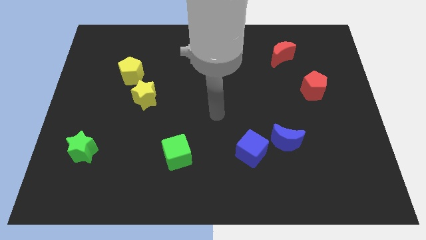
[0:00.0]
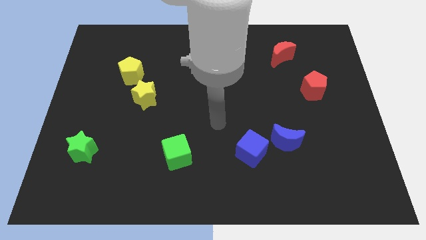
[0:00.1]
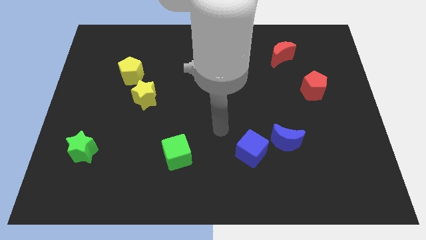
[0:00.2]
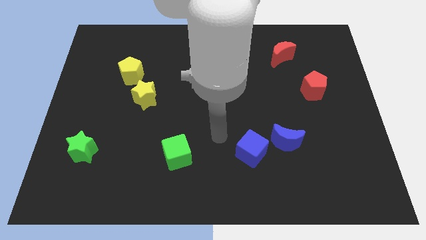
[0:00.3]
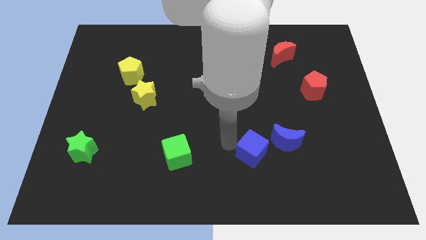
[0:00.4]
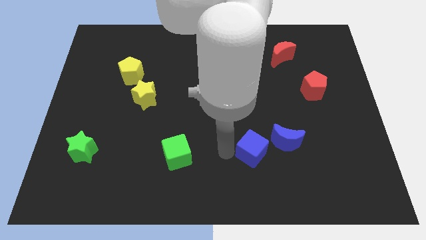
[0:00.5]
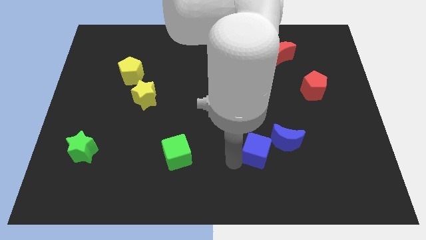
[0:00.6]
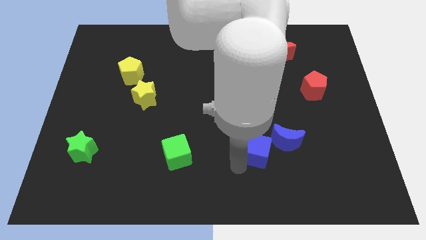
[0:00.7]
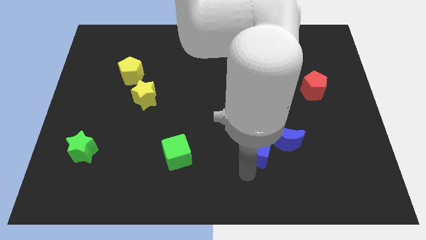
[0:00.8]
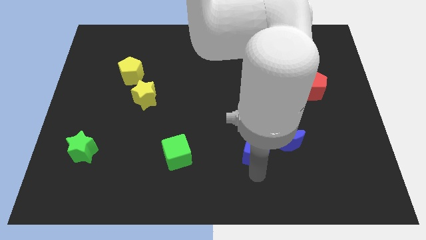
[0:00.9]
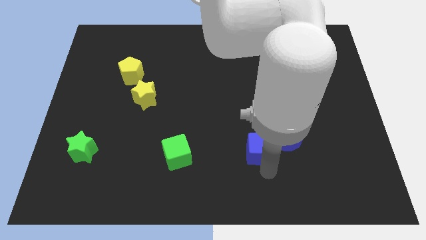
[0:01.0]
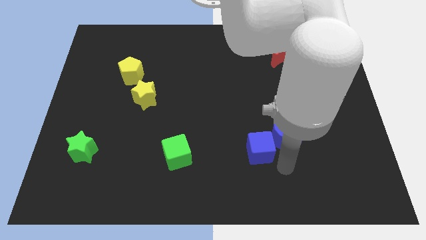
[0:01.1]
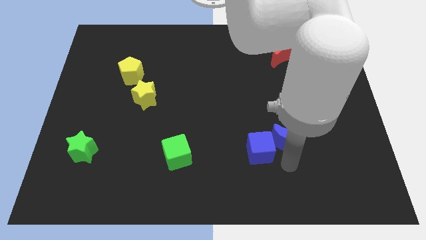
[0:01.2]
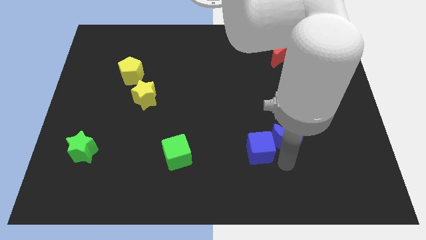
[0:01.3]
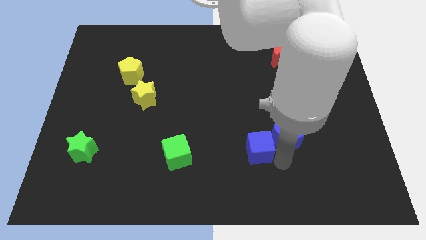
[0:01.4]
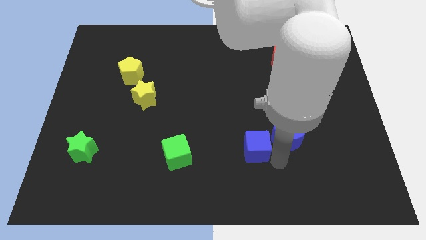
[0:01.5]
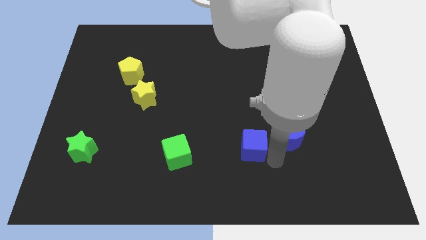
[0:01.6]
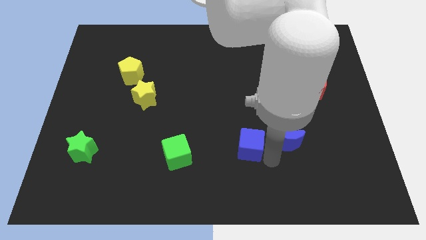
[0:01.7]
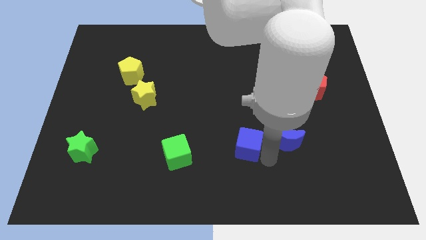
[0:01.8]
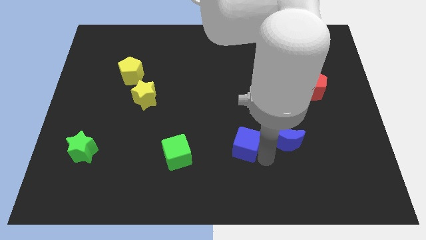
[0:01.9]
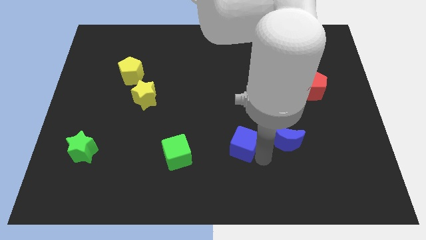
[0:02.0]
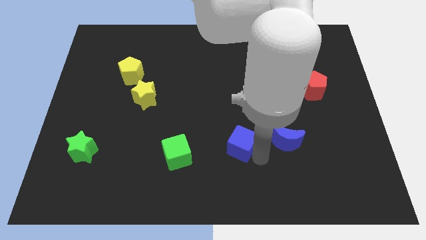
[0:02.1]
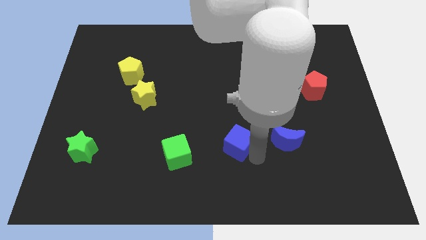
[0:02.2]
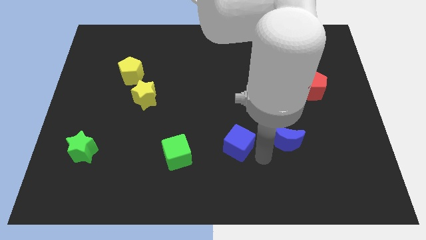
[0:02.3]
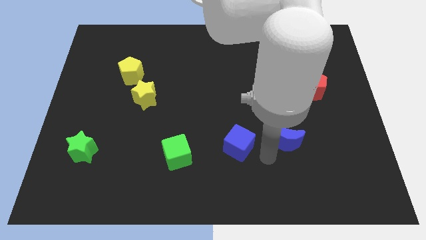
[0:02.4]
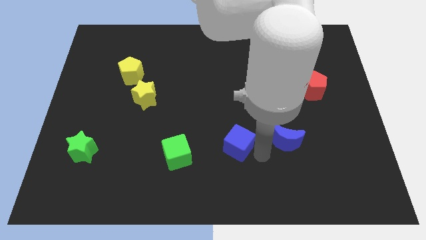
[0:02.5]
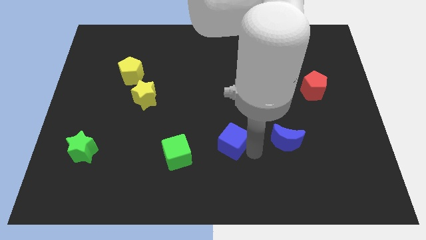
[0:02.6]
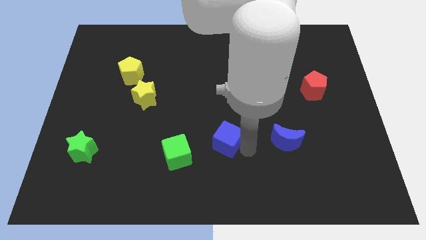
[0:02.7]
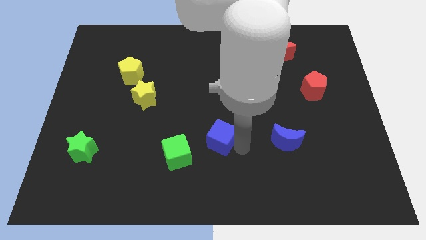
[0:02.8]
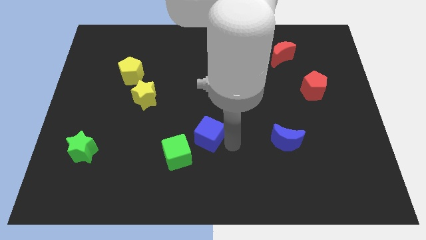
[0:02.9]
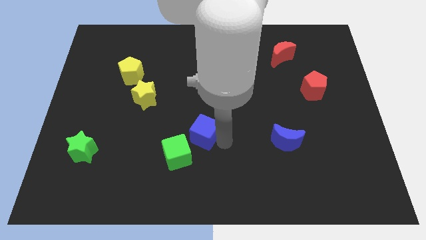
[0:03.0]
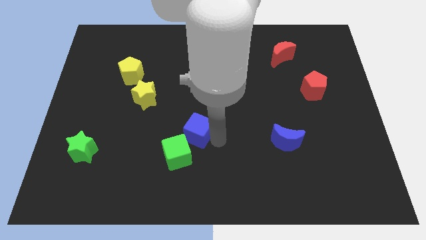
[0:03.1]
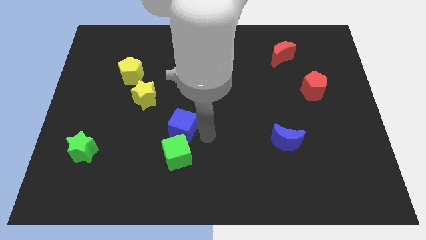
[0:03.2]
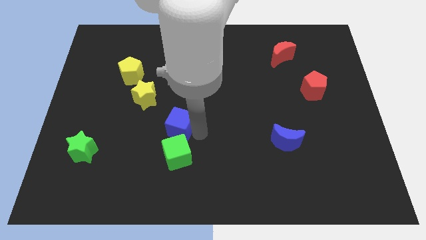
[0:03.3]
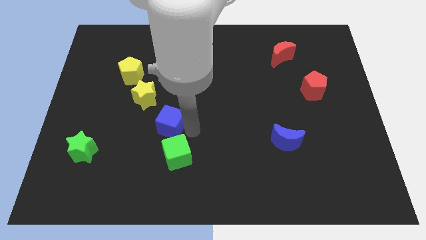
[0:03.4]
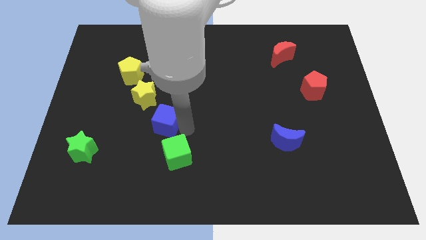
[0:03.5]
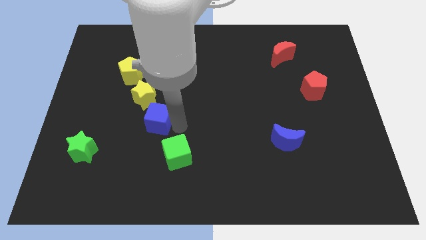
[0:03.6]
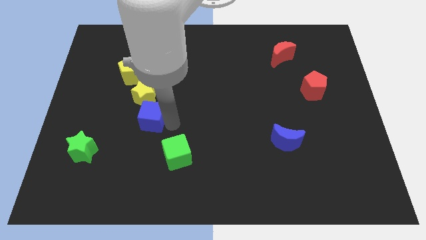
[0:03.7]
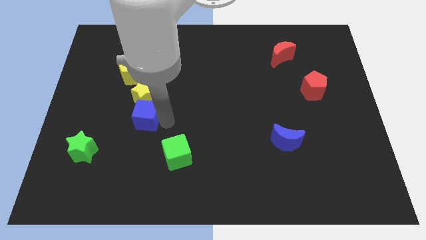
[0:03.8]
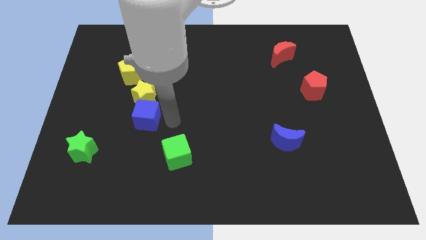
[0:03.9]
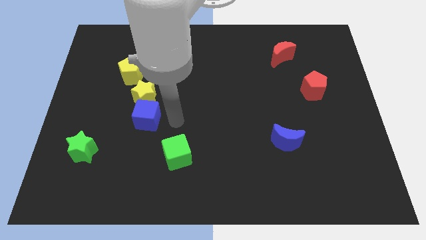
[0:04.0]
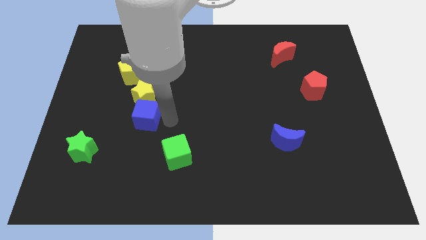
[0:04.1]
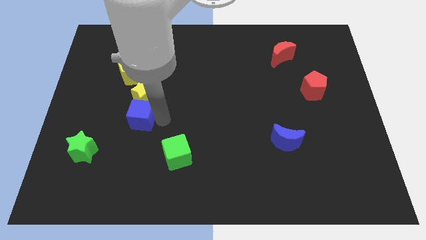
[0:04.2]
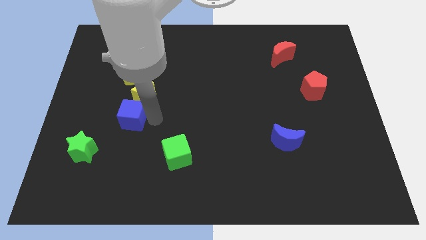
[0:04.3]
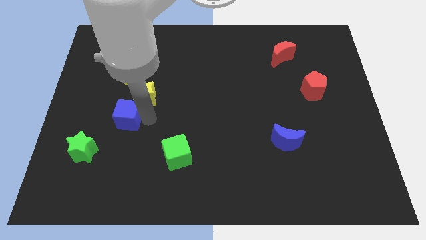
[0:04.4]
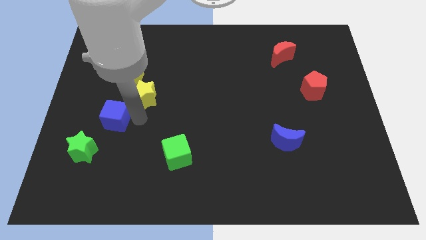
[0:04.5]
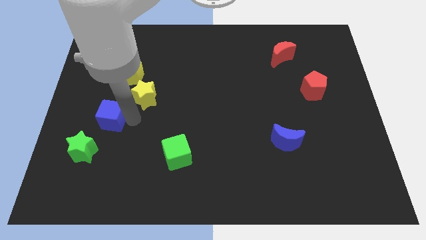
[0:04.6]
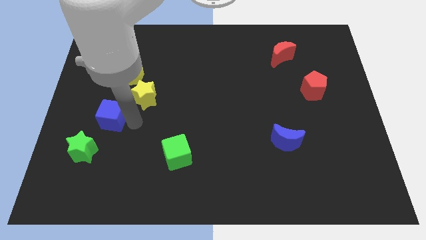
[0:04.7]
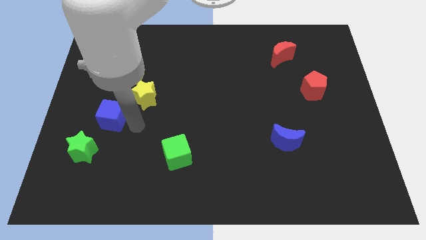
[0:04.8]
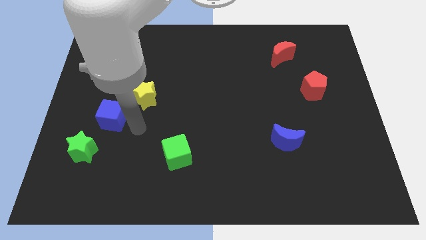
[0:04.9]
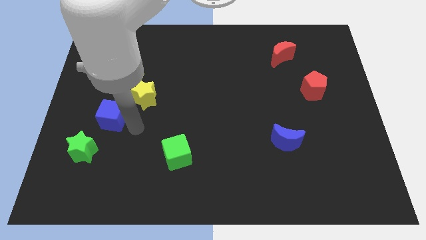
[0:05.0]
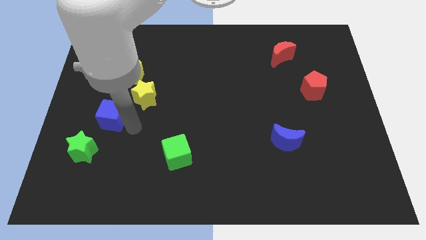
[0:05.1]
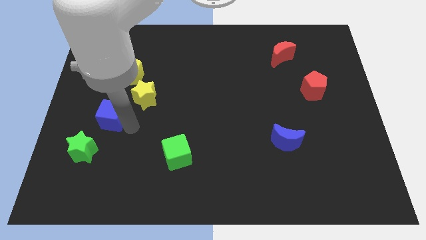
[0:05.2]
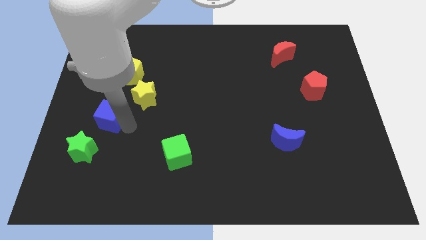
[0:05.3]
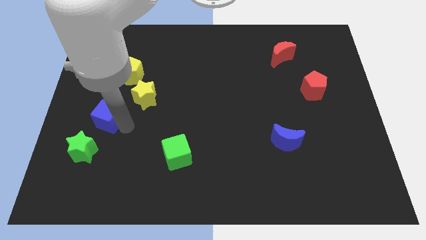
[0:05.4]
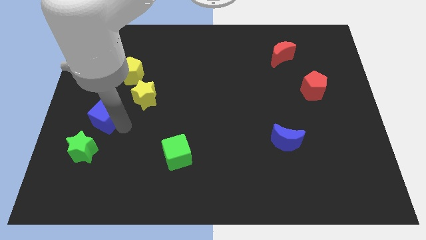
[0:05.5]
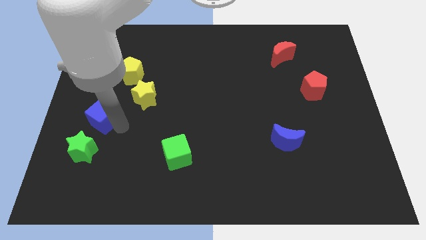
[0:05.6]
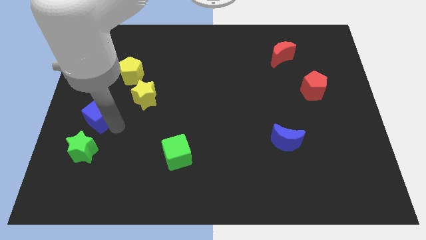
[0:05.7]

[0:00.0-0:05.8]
push the blue cube to the left side of the board

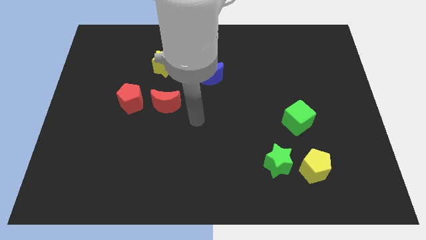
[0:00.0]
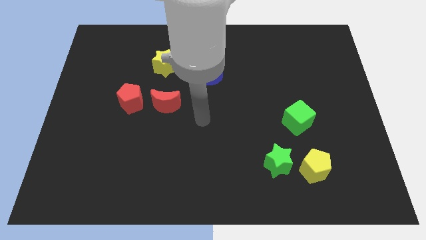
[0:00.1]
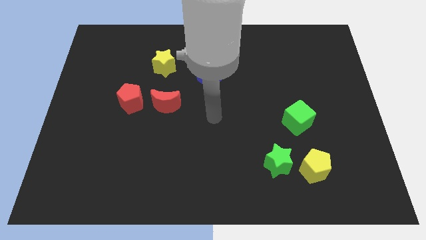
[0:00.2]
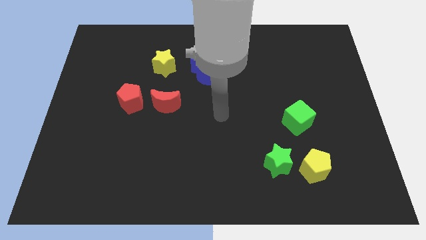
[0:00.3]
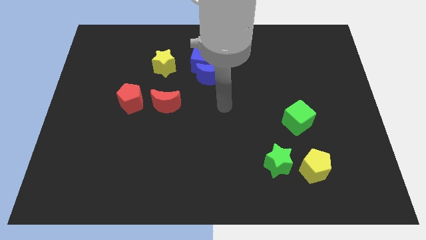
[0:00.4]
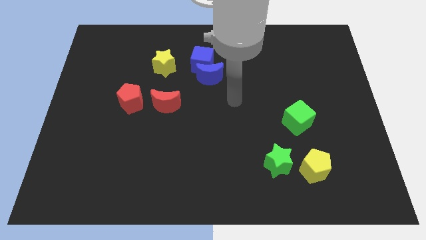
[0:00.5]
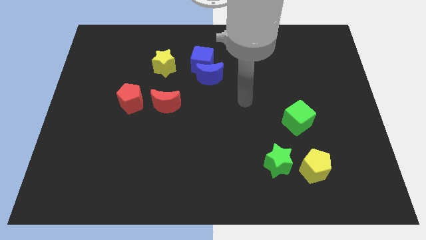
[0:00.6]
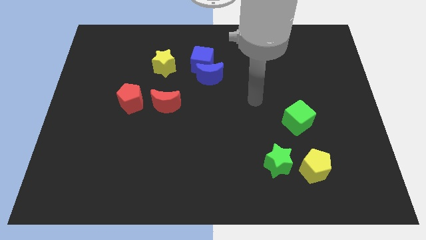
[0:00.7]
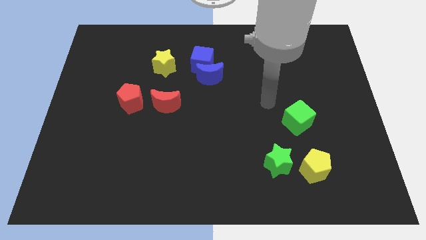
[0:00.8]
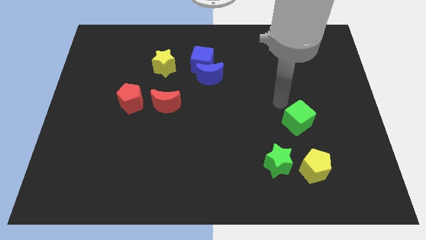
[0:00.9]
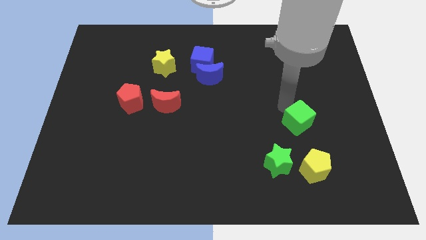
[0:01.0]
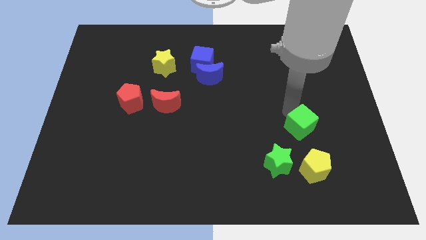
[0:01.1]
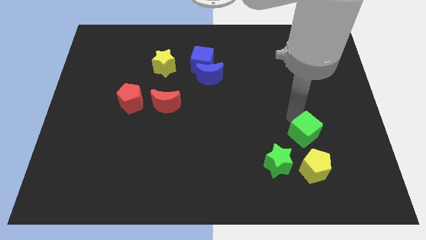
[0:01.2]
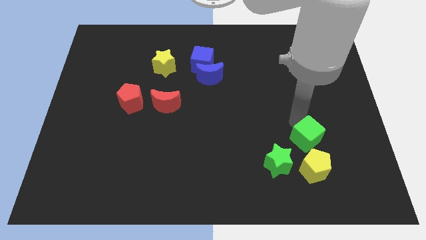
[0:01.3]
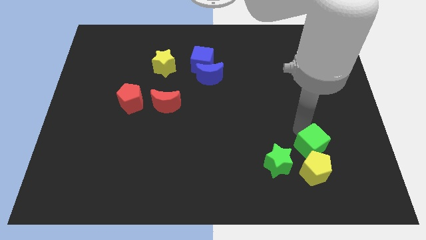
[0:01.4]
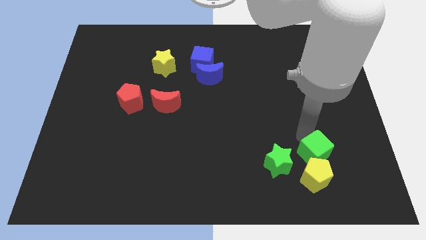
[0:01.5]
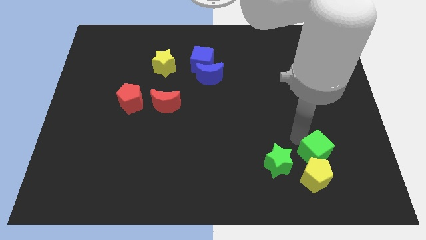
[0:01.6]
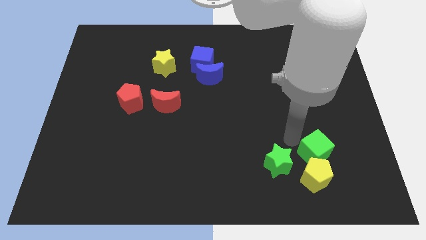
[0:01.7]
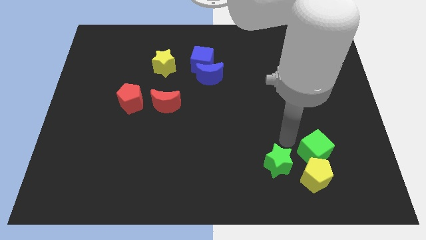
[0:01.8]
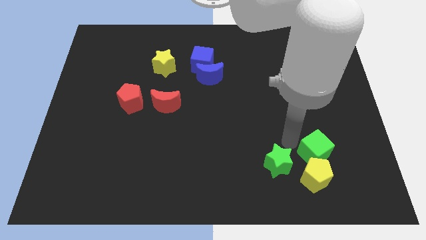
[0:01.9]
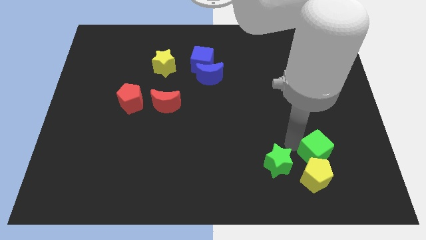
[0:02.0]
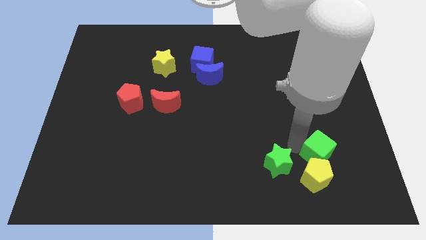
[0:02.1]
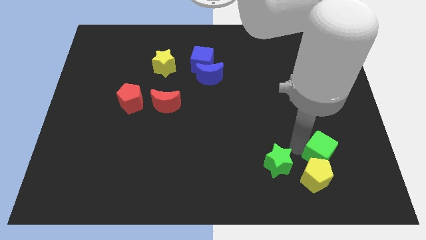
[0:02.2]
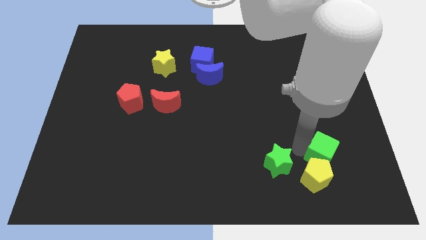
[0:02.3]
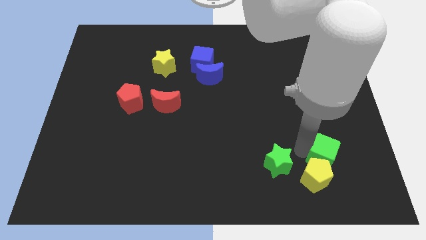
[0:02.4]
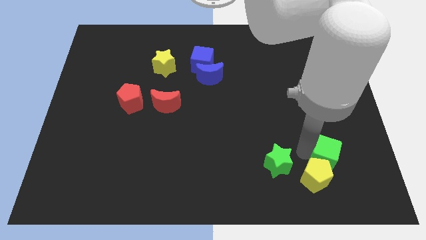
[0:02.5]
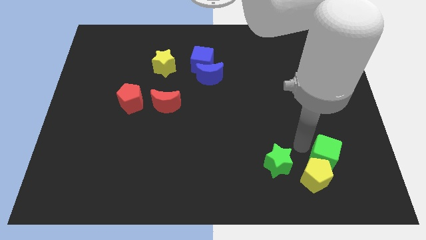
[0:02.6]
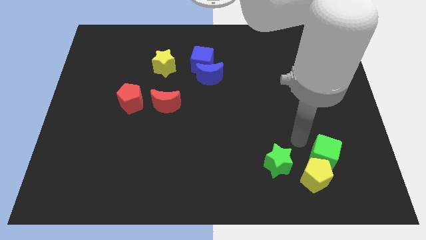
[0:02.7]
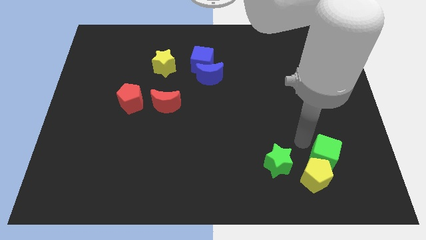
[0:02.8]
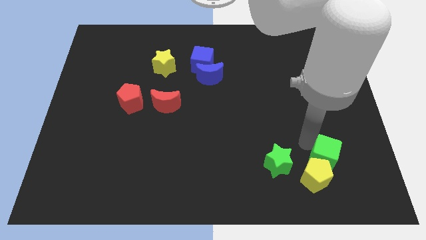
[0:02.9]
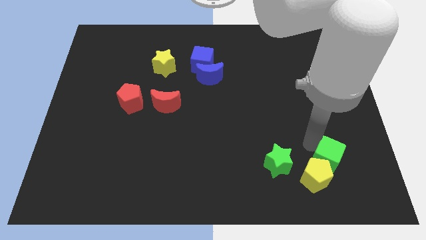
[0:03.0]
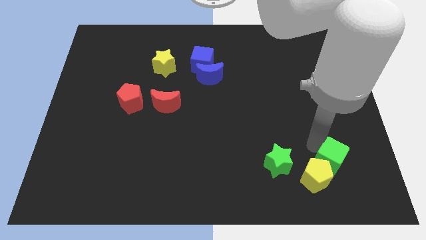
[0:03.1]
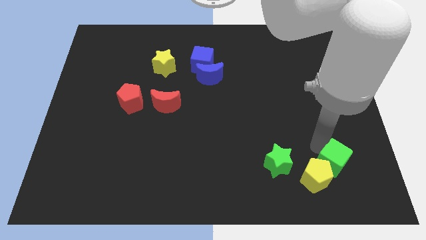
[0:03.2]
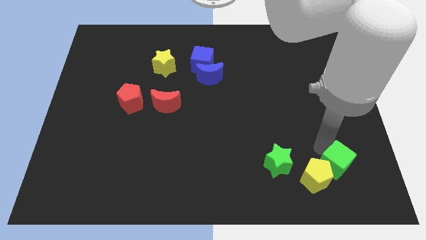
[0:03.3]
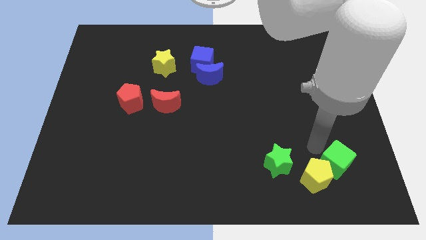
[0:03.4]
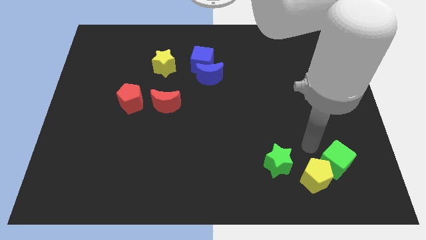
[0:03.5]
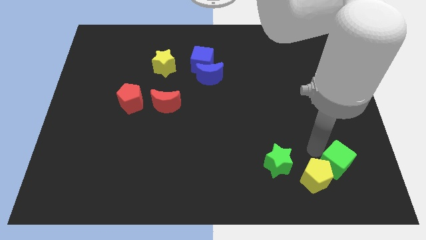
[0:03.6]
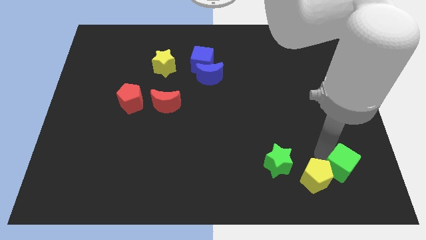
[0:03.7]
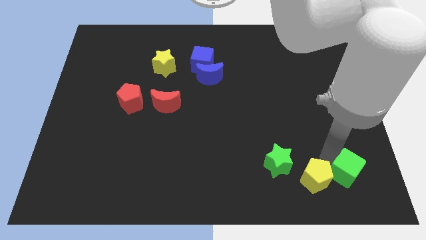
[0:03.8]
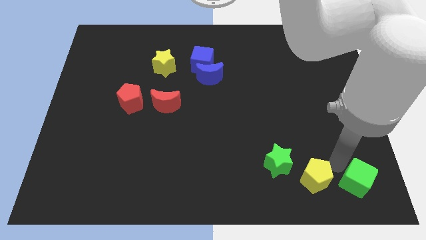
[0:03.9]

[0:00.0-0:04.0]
push the green cube to the bottom right corner
